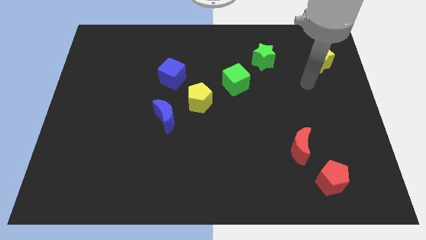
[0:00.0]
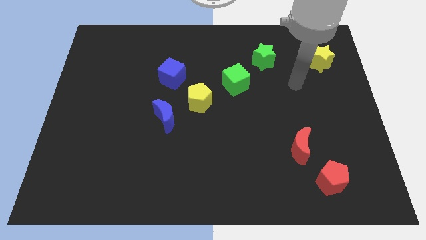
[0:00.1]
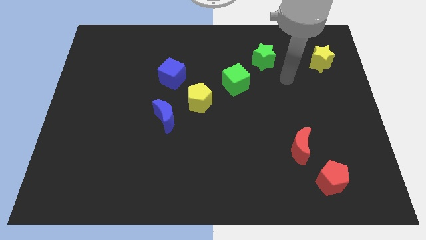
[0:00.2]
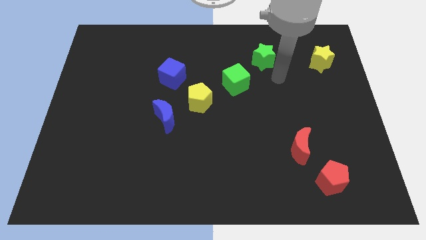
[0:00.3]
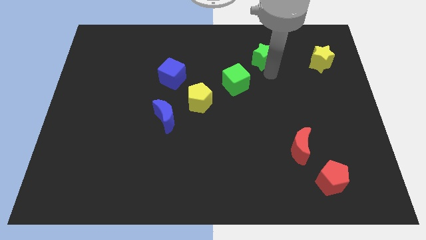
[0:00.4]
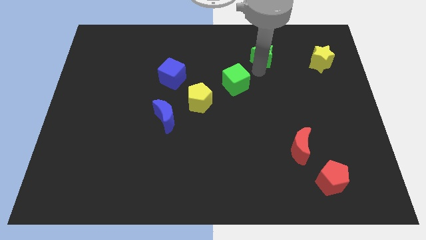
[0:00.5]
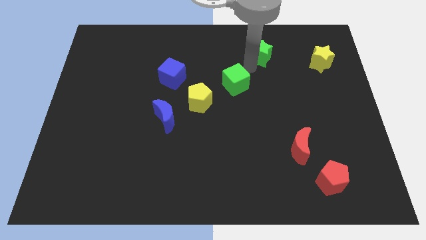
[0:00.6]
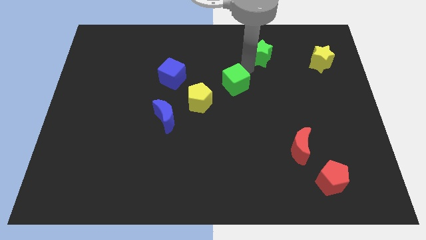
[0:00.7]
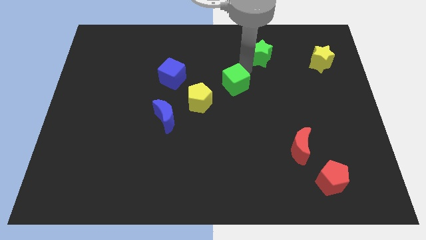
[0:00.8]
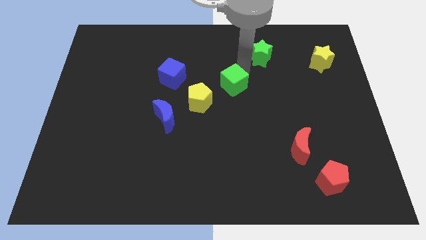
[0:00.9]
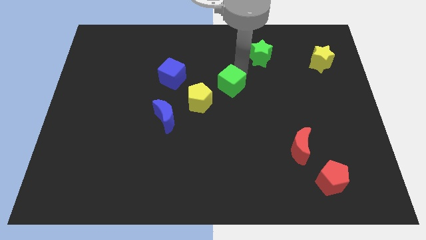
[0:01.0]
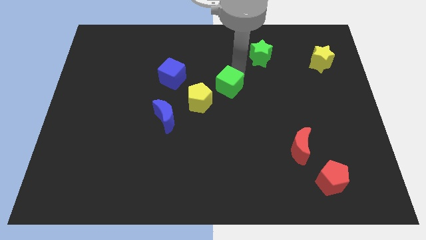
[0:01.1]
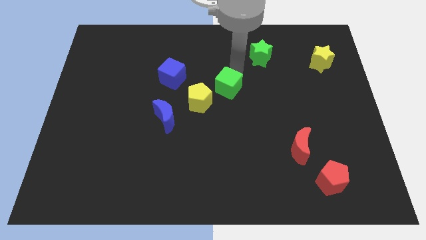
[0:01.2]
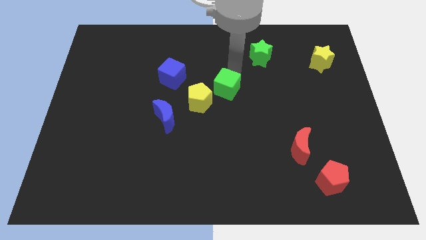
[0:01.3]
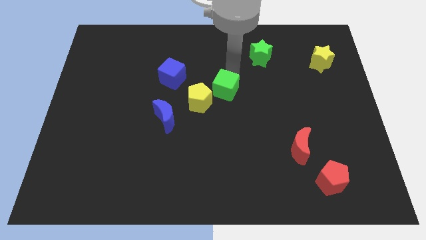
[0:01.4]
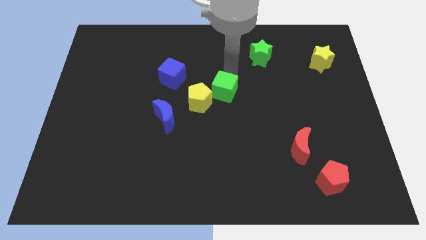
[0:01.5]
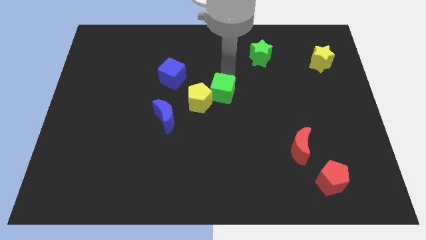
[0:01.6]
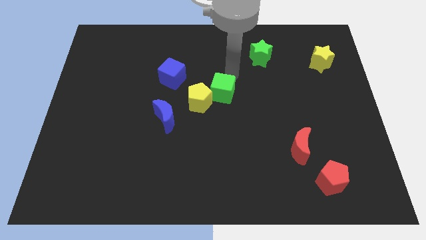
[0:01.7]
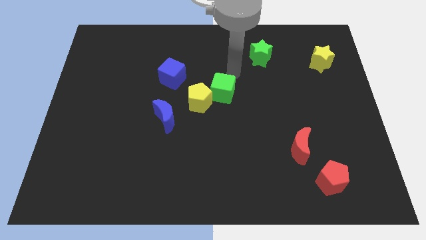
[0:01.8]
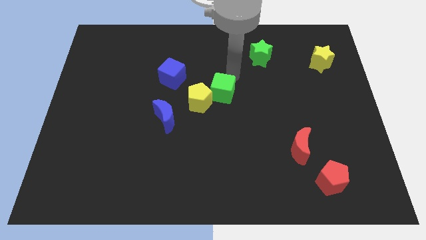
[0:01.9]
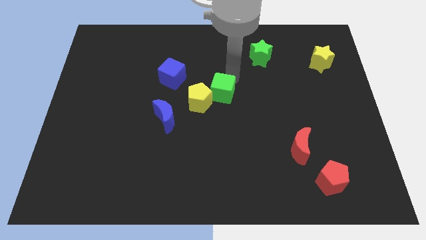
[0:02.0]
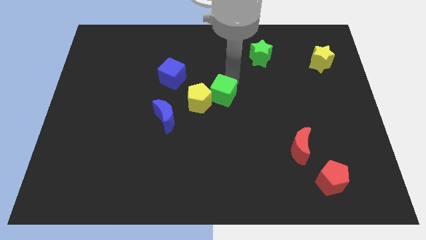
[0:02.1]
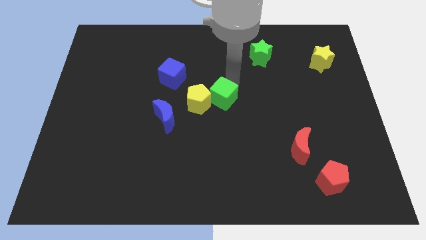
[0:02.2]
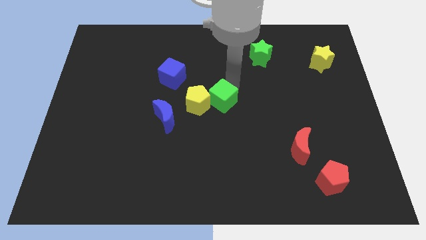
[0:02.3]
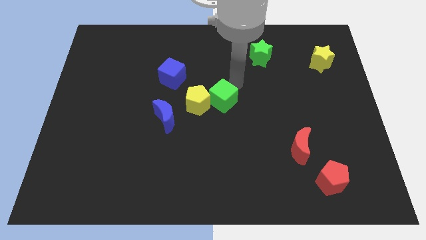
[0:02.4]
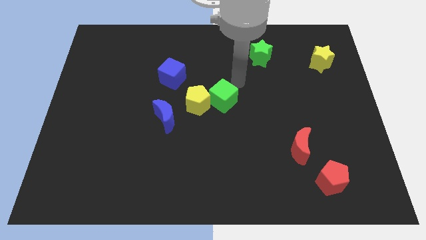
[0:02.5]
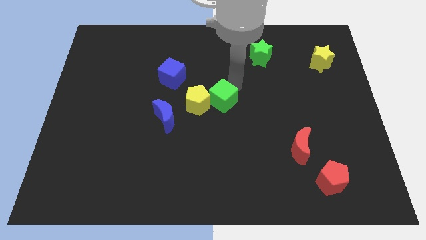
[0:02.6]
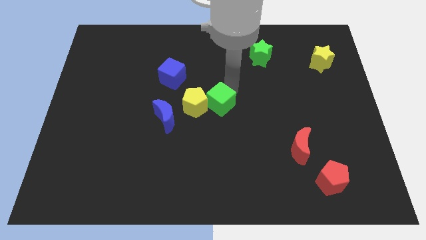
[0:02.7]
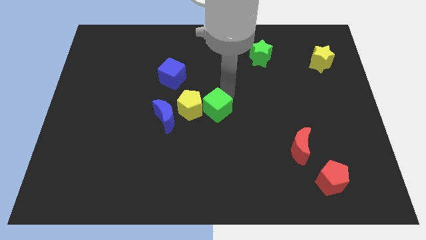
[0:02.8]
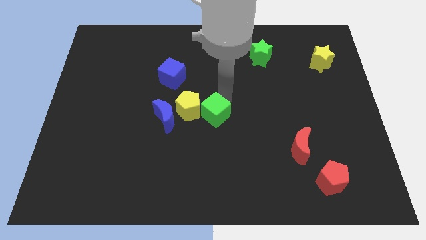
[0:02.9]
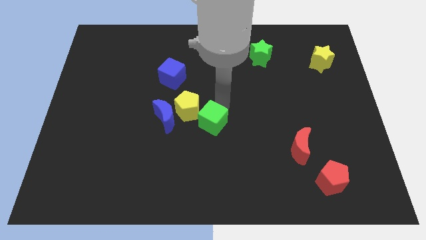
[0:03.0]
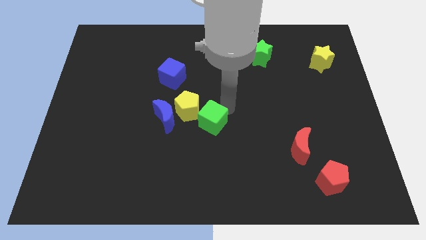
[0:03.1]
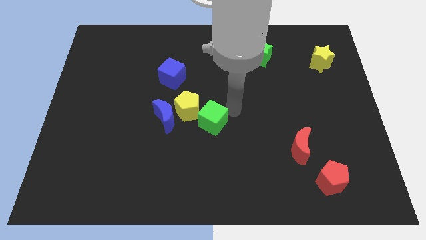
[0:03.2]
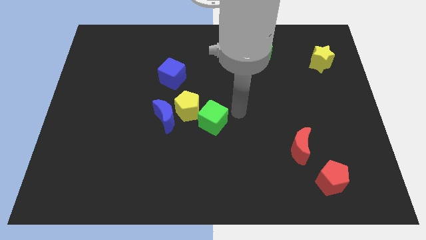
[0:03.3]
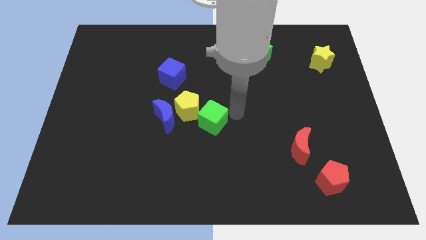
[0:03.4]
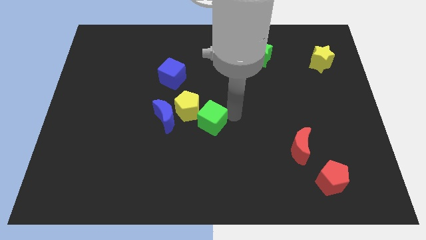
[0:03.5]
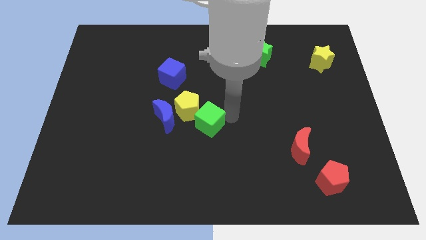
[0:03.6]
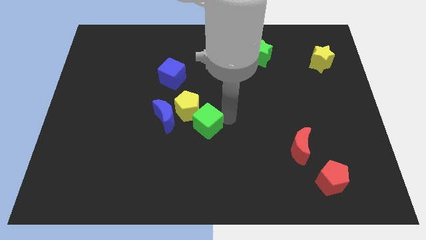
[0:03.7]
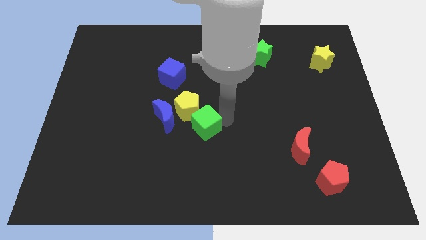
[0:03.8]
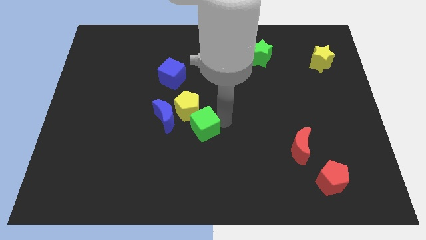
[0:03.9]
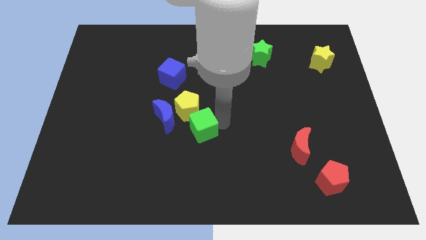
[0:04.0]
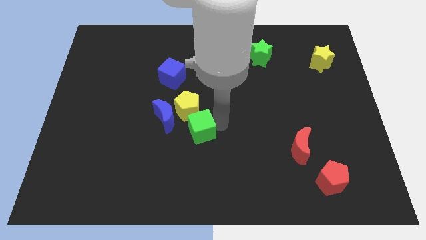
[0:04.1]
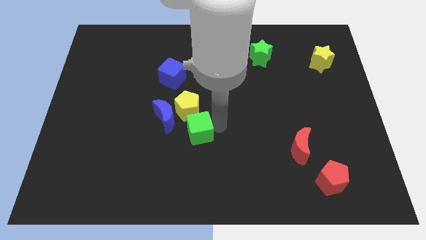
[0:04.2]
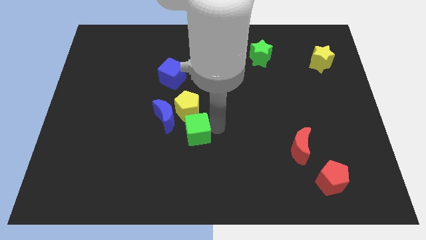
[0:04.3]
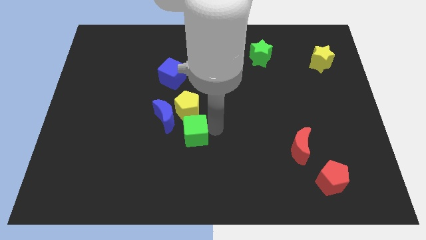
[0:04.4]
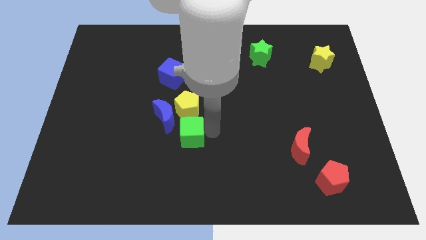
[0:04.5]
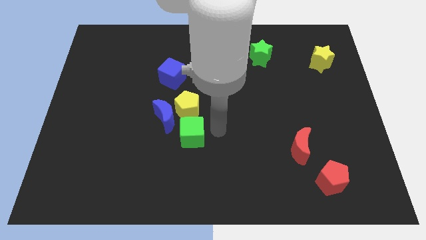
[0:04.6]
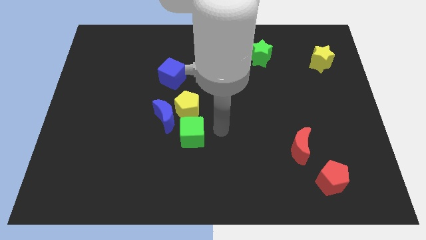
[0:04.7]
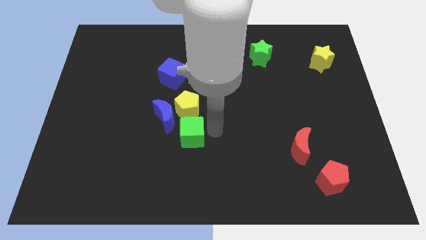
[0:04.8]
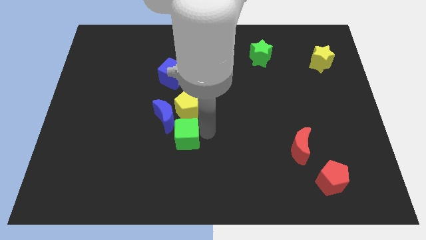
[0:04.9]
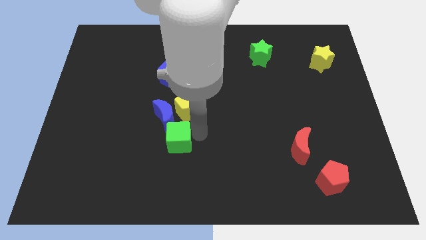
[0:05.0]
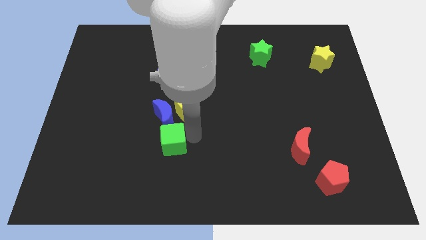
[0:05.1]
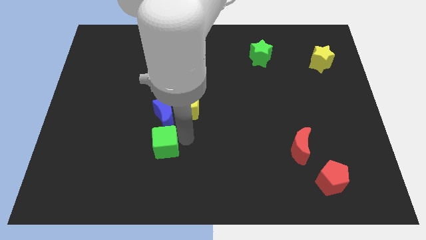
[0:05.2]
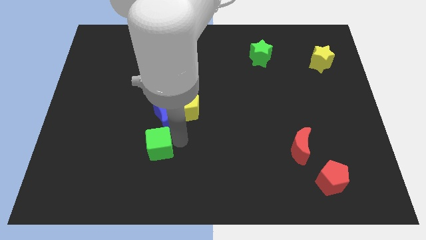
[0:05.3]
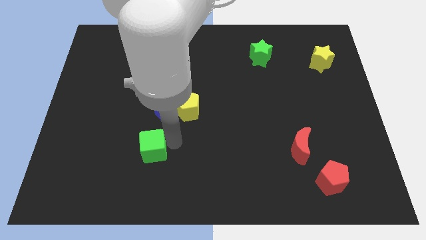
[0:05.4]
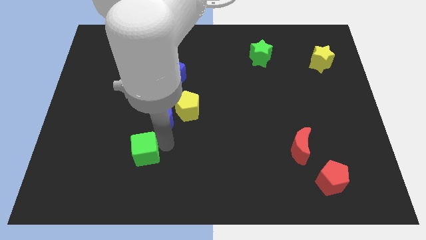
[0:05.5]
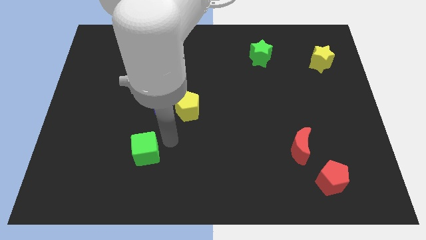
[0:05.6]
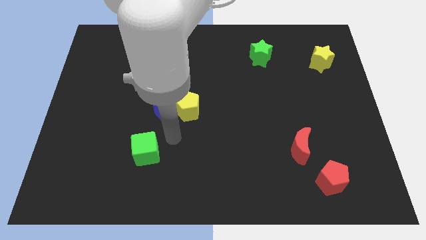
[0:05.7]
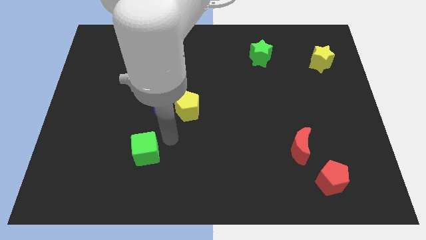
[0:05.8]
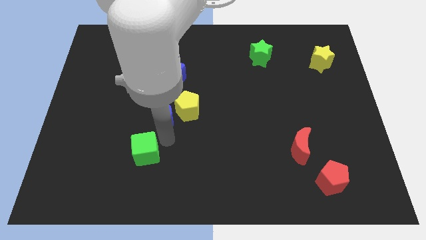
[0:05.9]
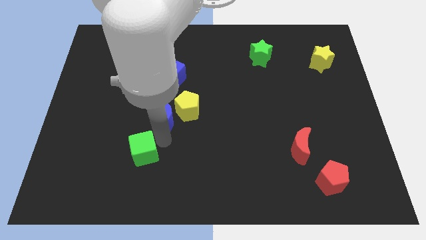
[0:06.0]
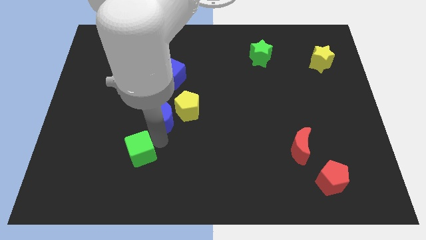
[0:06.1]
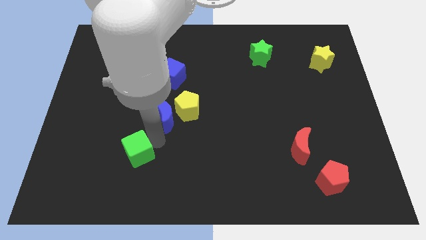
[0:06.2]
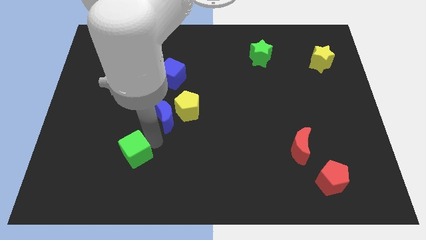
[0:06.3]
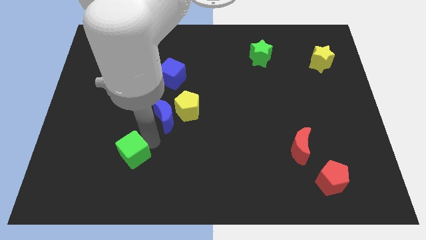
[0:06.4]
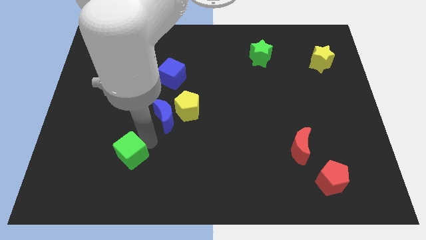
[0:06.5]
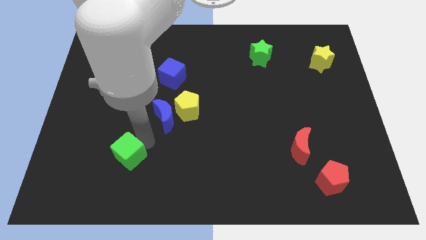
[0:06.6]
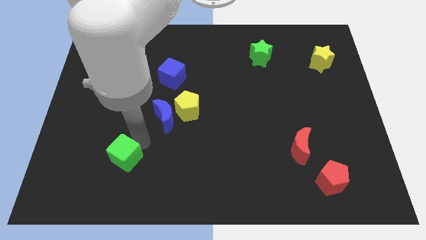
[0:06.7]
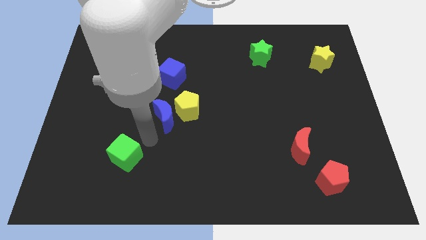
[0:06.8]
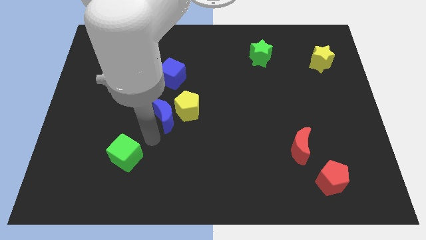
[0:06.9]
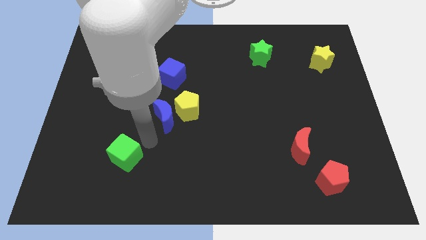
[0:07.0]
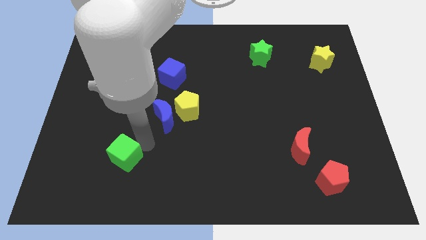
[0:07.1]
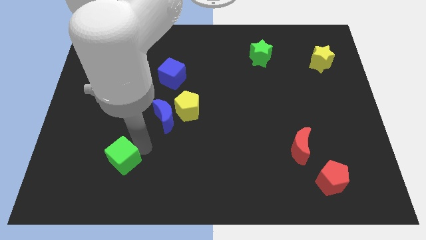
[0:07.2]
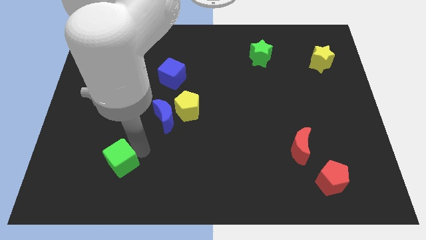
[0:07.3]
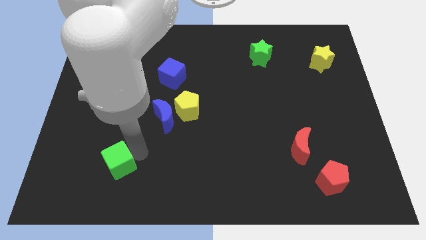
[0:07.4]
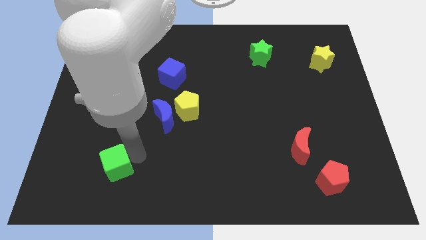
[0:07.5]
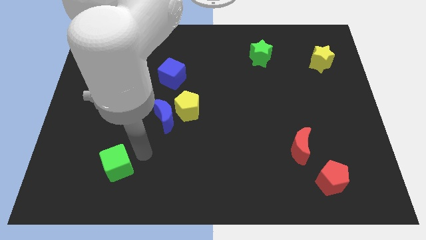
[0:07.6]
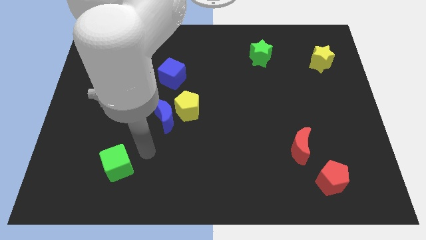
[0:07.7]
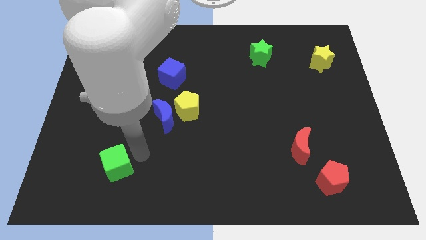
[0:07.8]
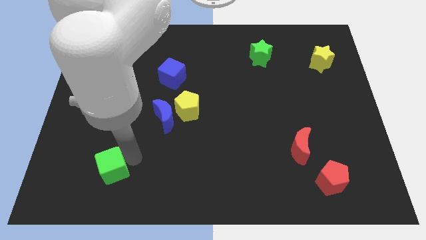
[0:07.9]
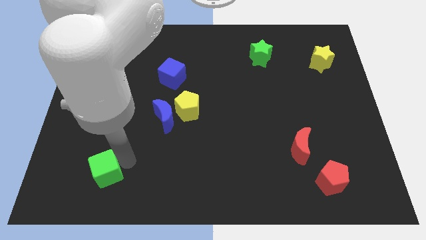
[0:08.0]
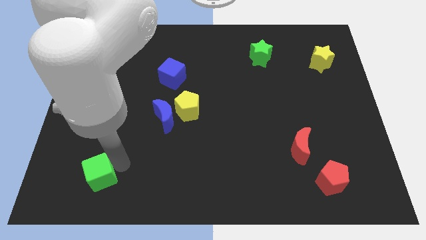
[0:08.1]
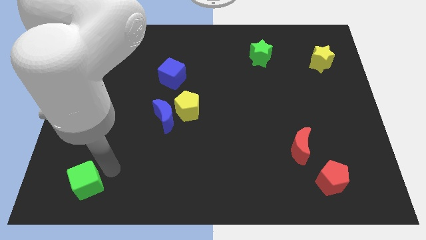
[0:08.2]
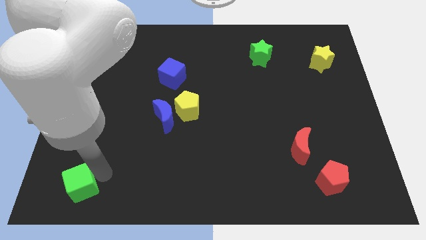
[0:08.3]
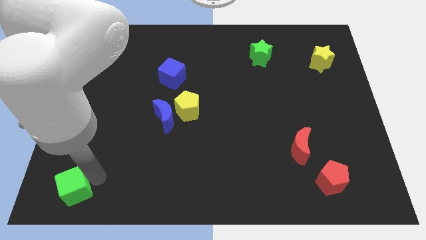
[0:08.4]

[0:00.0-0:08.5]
move the green cube to the bottom left
